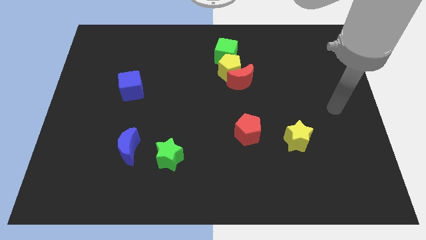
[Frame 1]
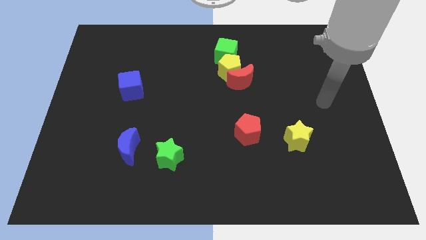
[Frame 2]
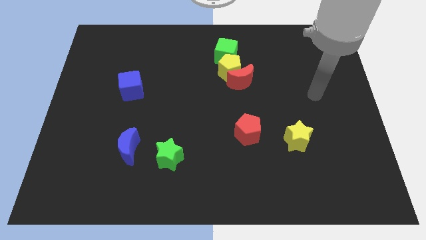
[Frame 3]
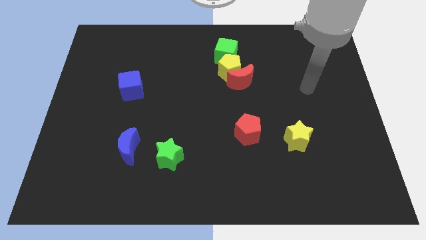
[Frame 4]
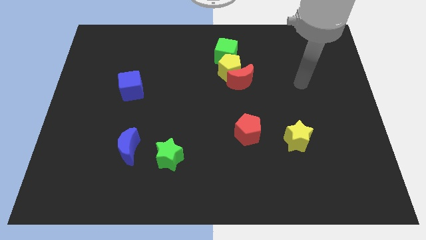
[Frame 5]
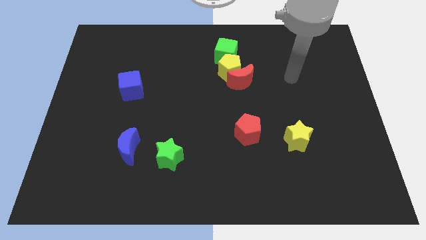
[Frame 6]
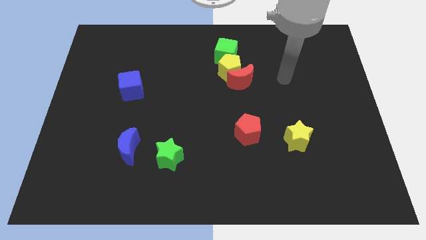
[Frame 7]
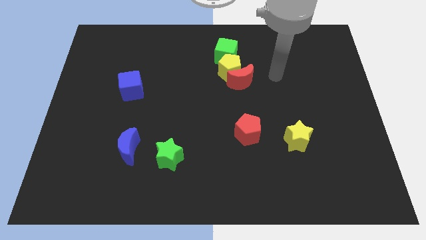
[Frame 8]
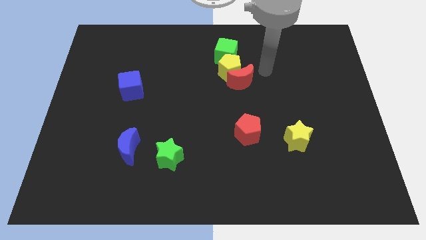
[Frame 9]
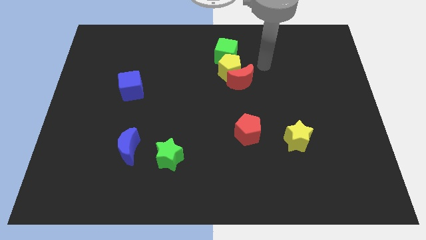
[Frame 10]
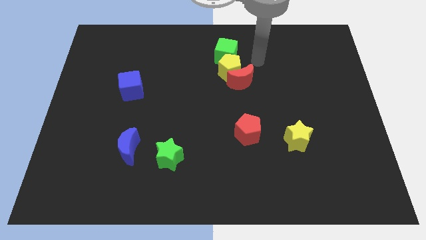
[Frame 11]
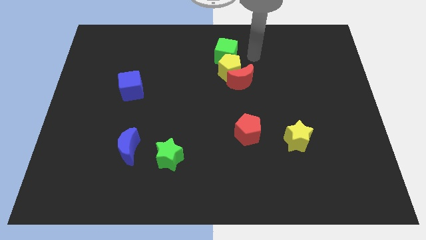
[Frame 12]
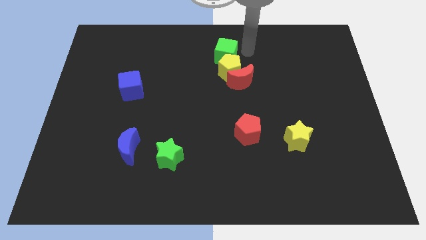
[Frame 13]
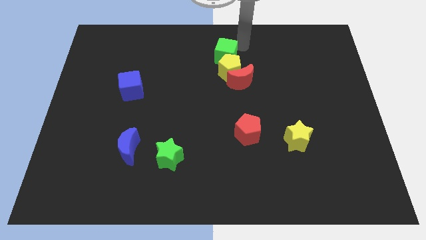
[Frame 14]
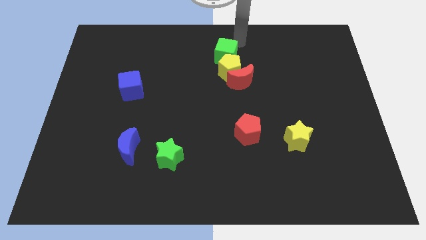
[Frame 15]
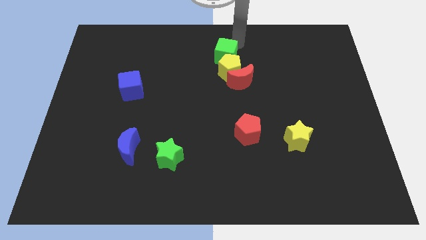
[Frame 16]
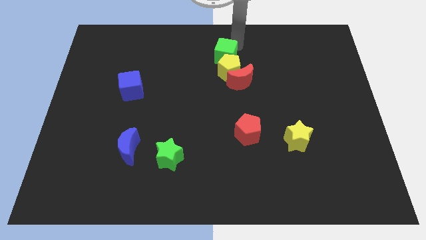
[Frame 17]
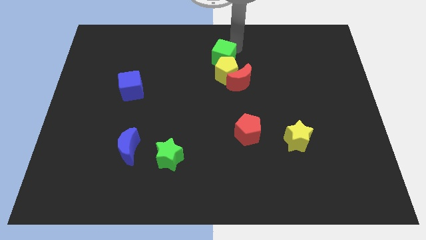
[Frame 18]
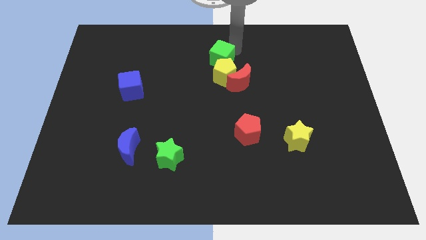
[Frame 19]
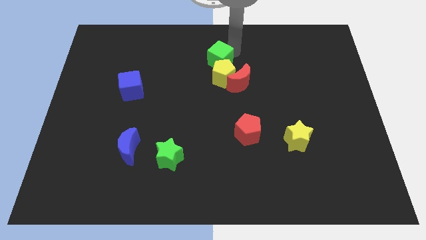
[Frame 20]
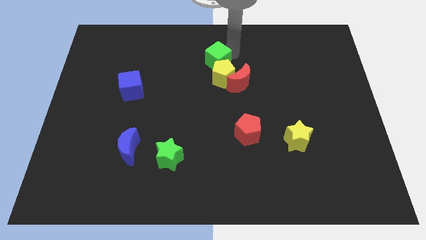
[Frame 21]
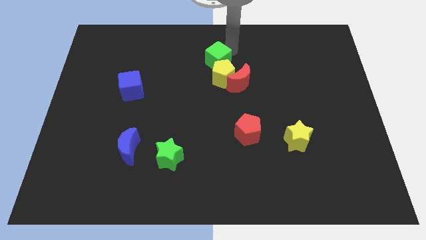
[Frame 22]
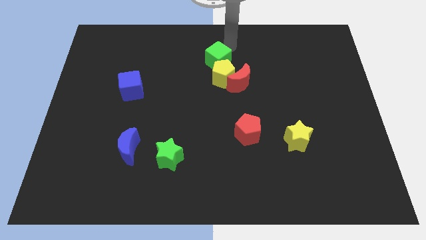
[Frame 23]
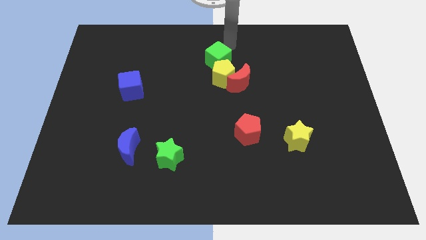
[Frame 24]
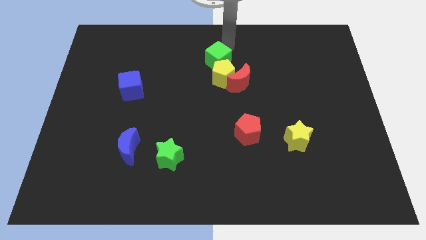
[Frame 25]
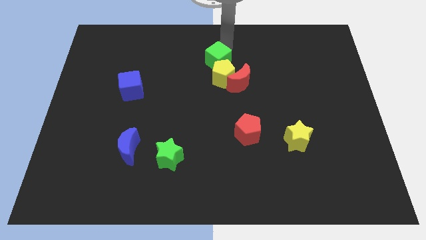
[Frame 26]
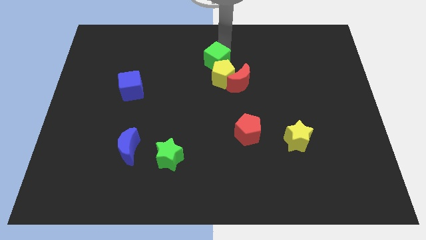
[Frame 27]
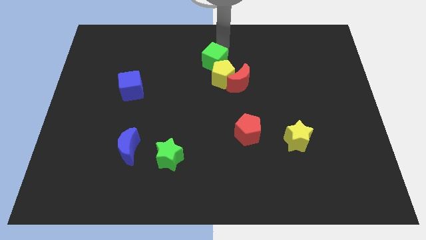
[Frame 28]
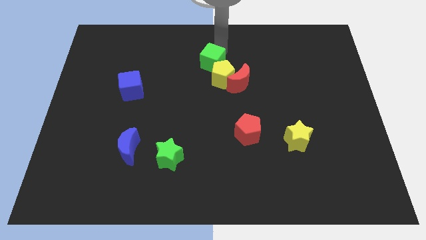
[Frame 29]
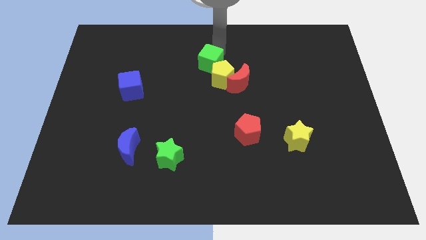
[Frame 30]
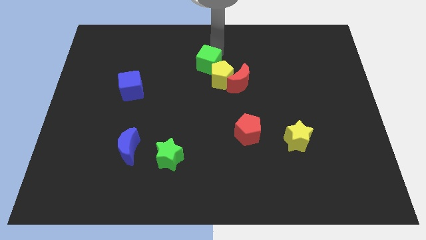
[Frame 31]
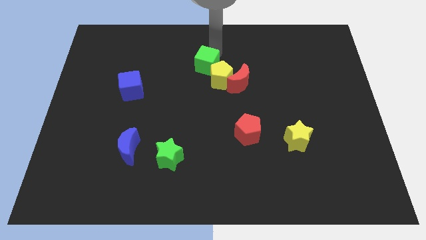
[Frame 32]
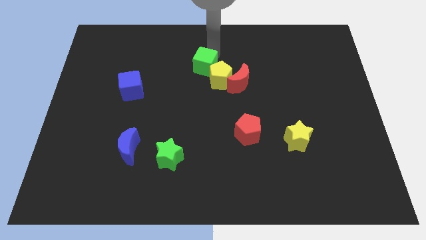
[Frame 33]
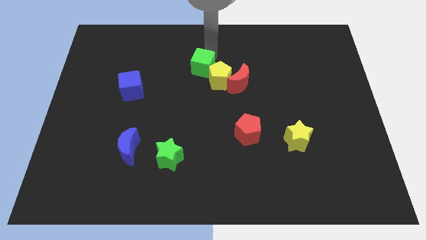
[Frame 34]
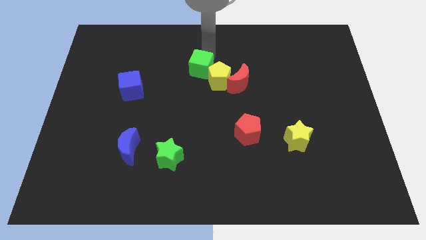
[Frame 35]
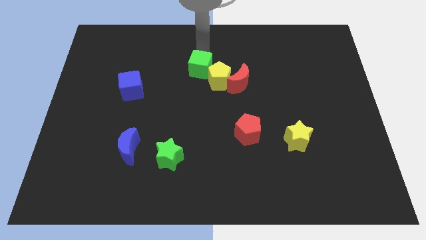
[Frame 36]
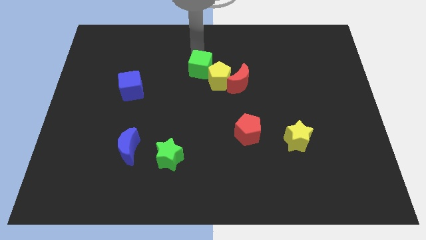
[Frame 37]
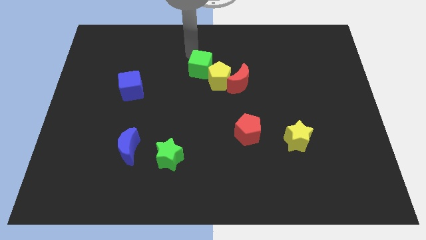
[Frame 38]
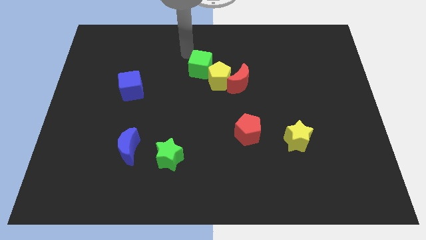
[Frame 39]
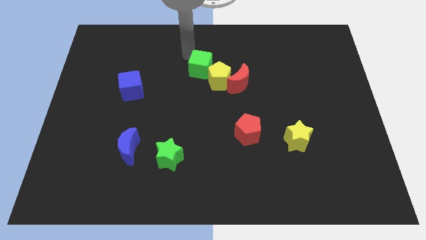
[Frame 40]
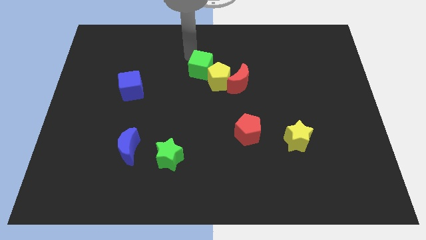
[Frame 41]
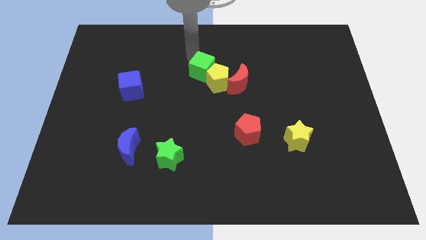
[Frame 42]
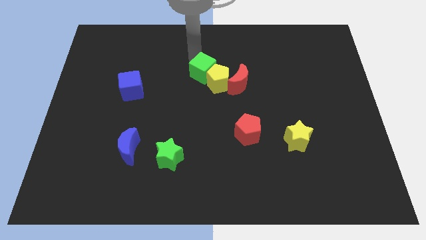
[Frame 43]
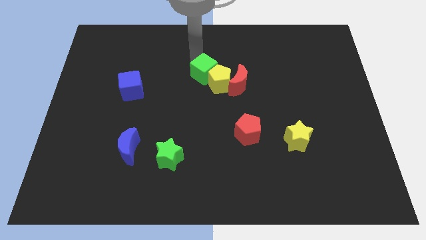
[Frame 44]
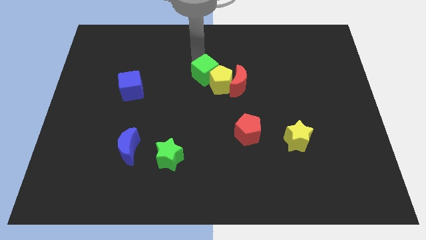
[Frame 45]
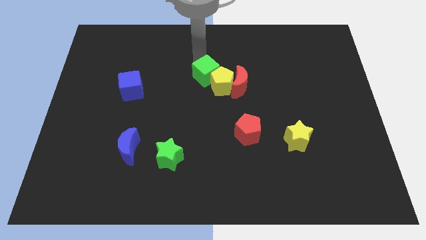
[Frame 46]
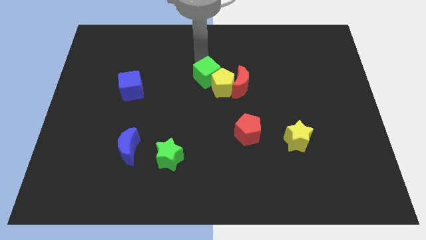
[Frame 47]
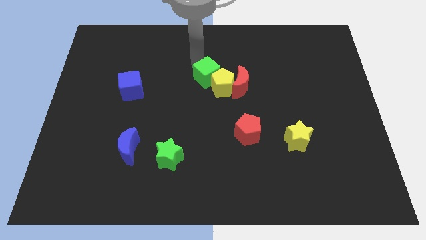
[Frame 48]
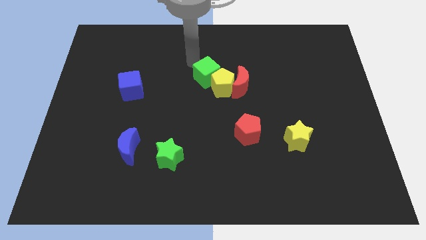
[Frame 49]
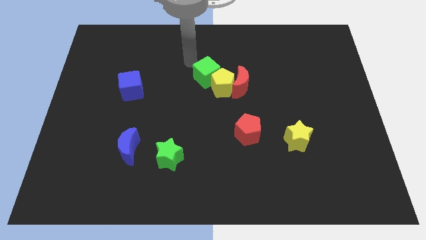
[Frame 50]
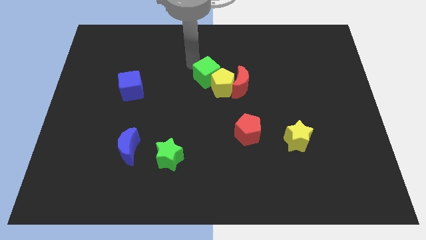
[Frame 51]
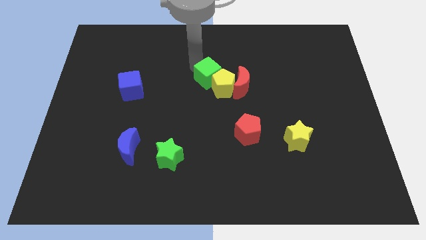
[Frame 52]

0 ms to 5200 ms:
slightly slide the green cube down

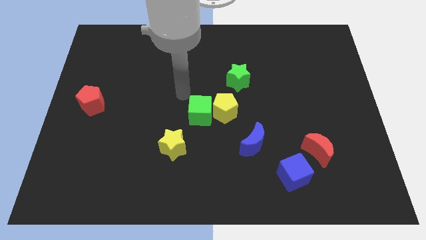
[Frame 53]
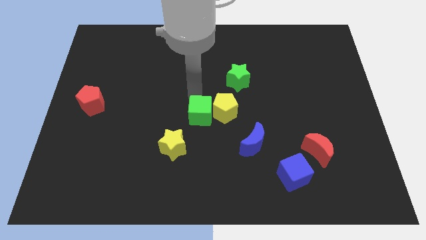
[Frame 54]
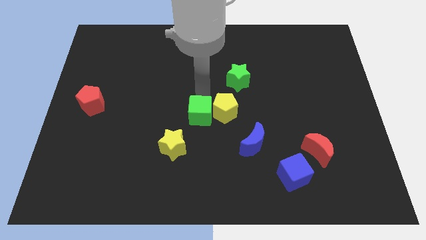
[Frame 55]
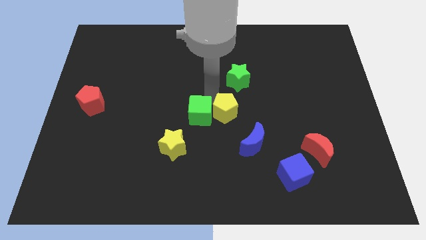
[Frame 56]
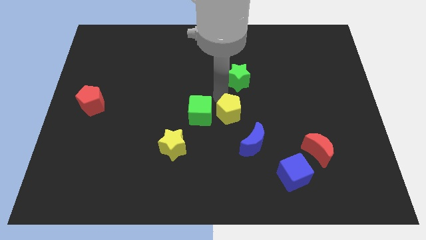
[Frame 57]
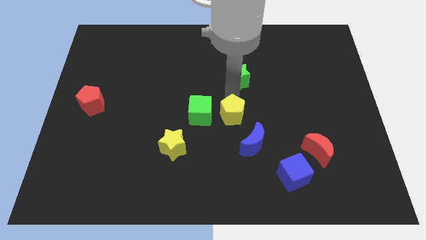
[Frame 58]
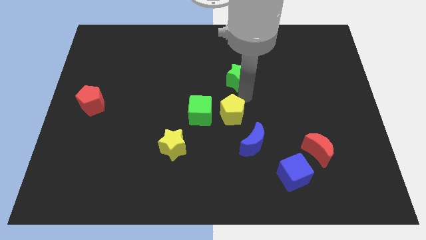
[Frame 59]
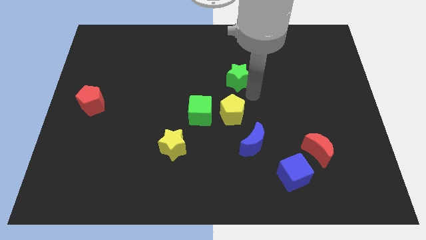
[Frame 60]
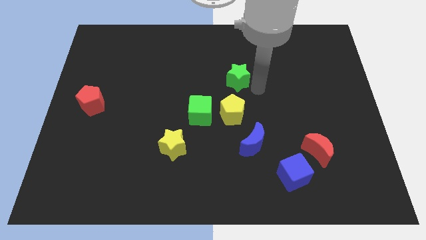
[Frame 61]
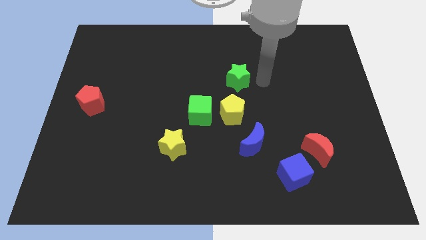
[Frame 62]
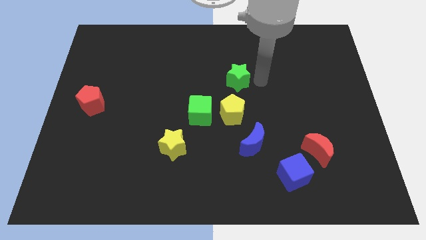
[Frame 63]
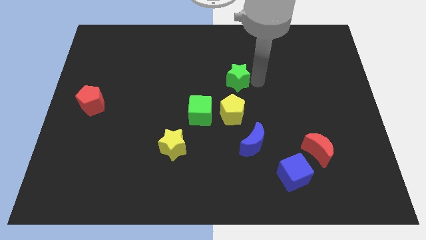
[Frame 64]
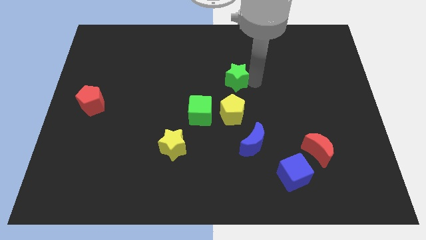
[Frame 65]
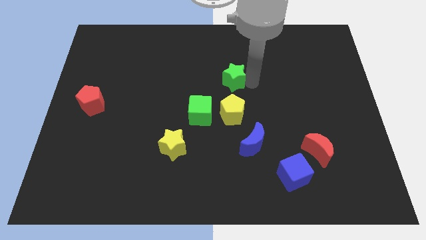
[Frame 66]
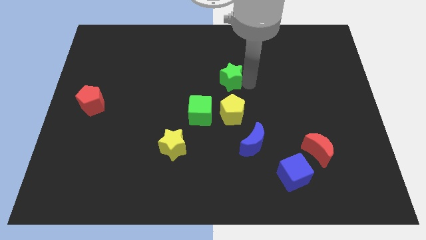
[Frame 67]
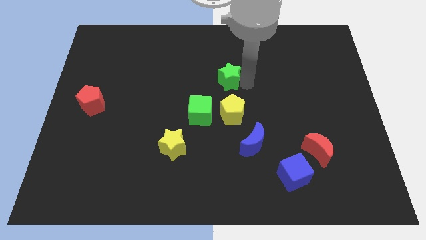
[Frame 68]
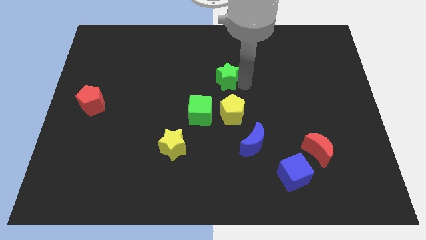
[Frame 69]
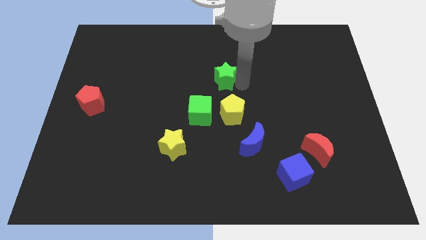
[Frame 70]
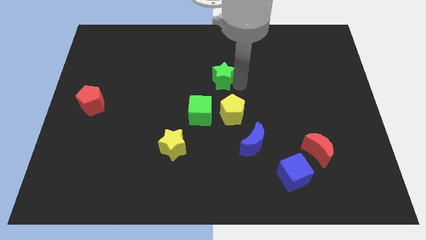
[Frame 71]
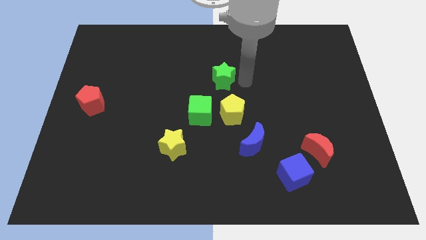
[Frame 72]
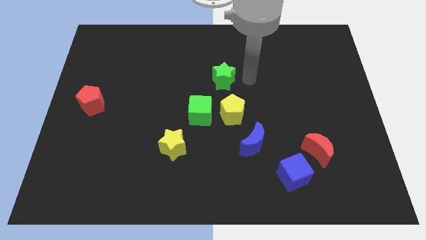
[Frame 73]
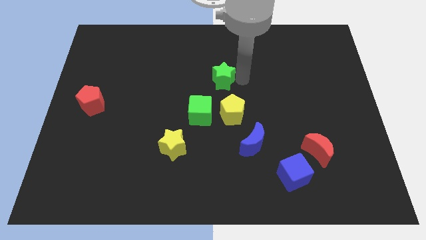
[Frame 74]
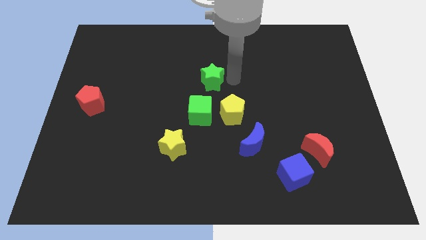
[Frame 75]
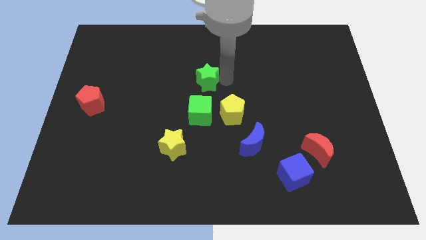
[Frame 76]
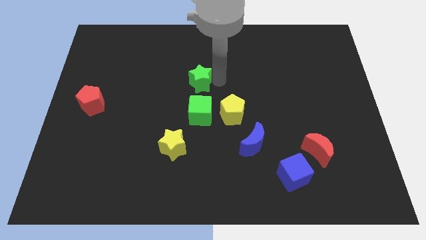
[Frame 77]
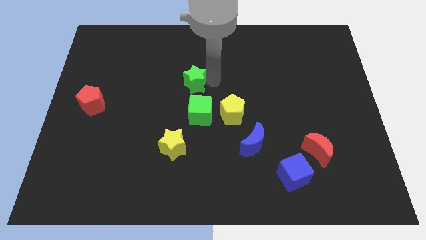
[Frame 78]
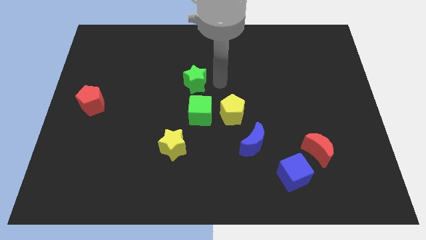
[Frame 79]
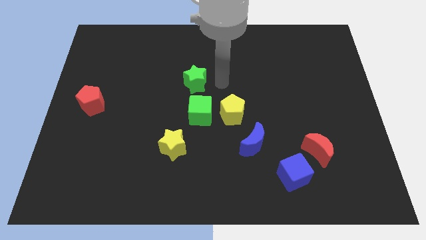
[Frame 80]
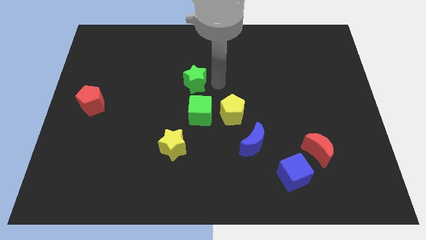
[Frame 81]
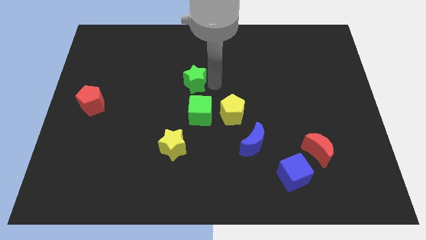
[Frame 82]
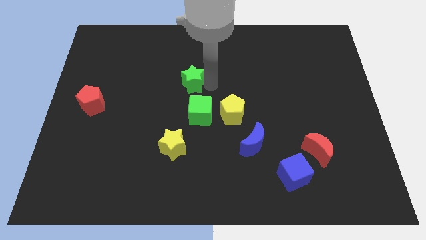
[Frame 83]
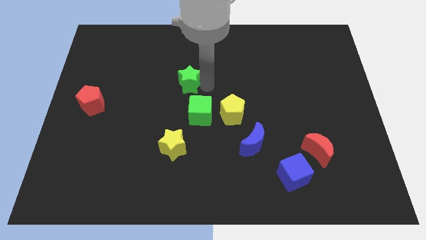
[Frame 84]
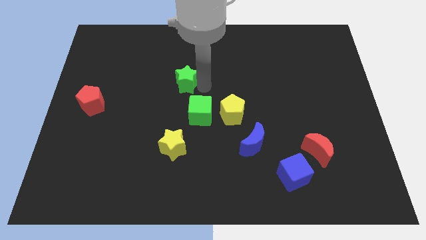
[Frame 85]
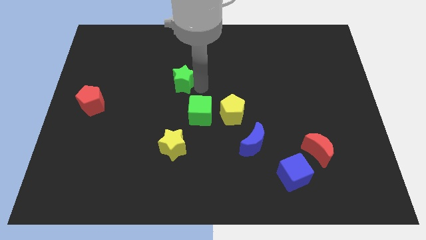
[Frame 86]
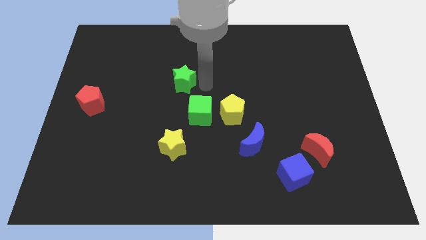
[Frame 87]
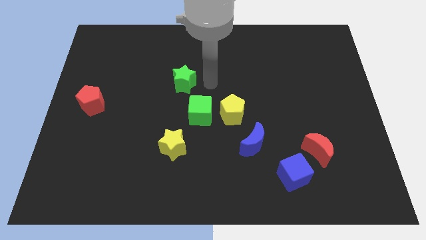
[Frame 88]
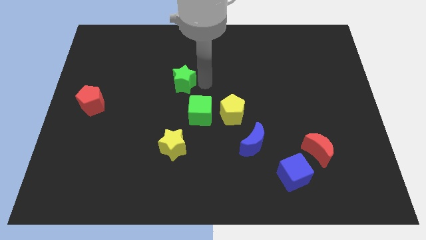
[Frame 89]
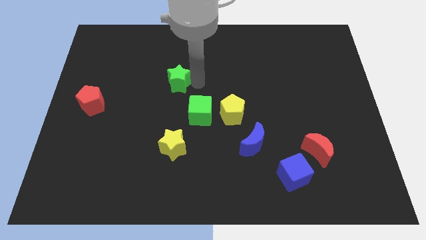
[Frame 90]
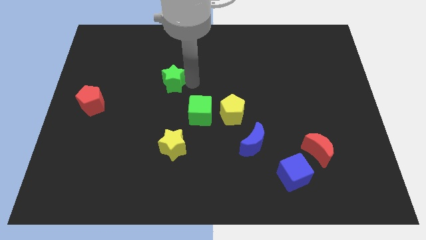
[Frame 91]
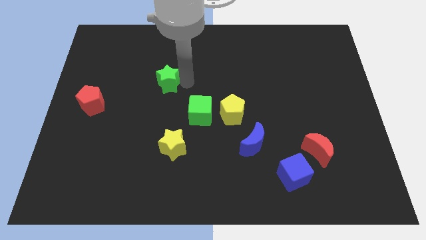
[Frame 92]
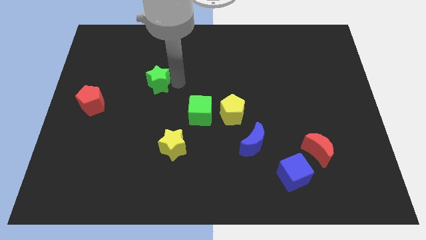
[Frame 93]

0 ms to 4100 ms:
push the green star left
